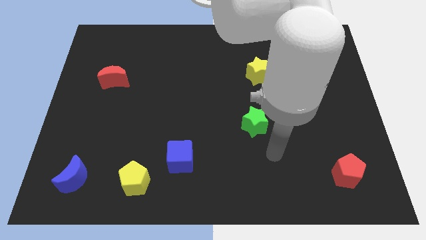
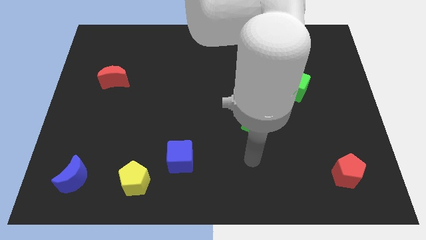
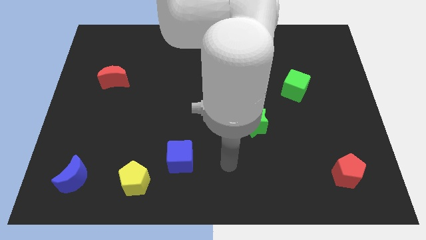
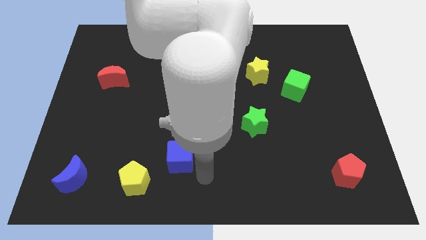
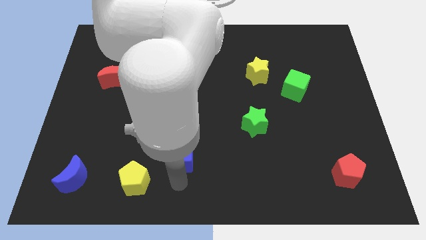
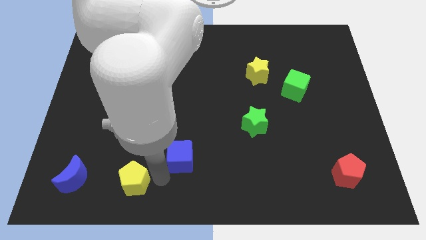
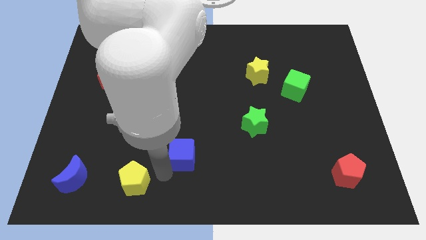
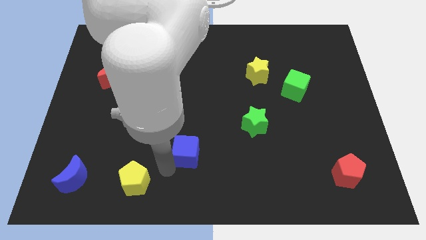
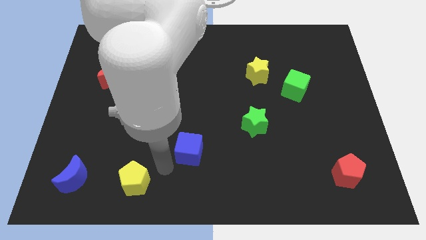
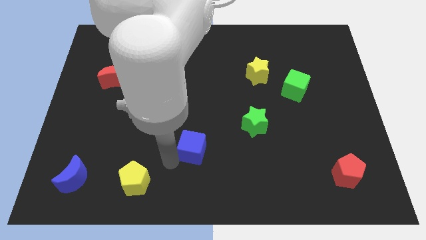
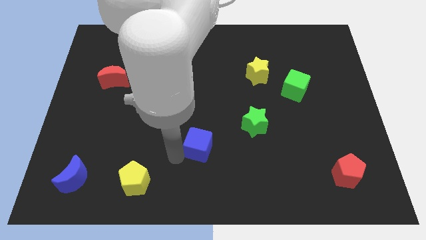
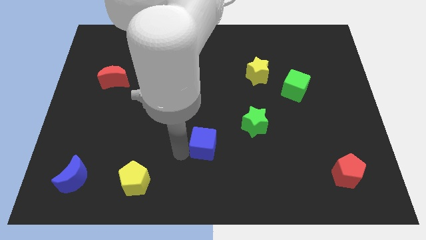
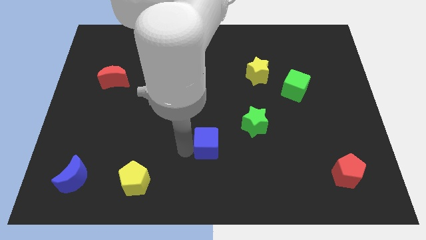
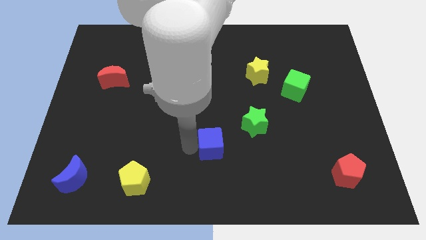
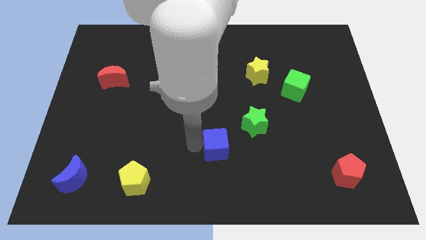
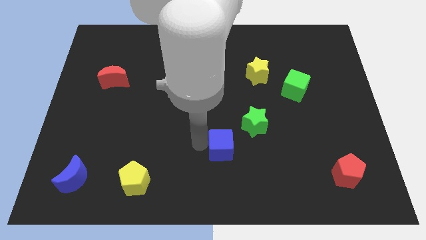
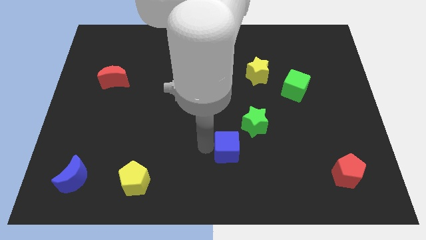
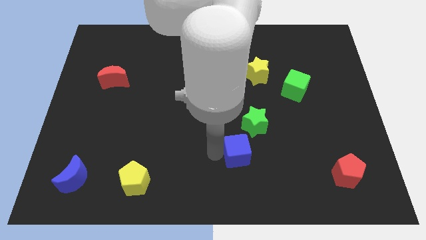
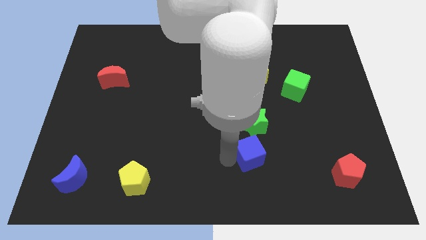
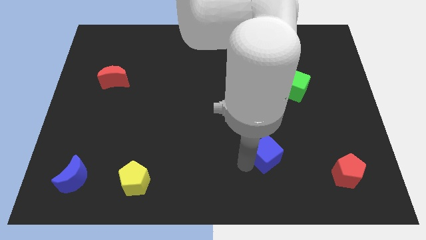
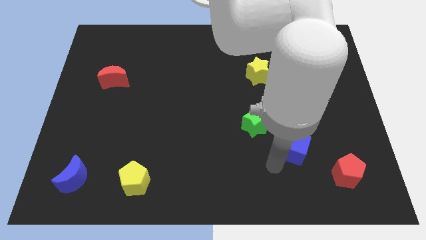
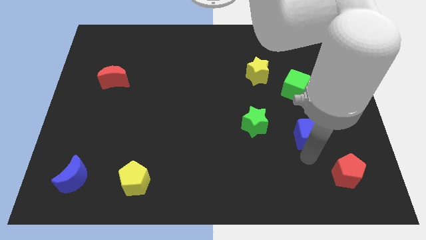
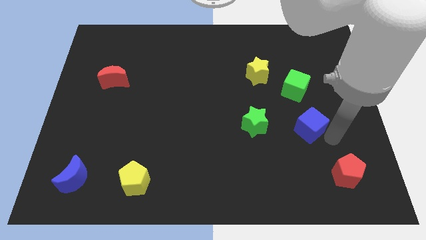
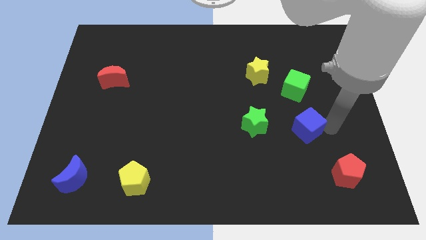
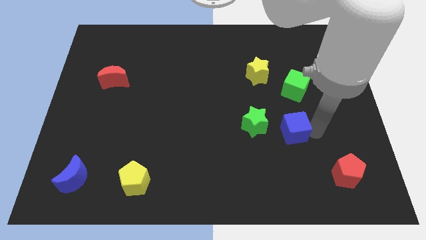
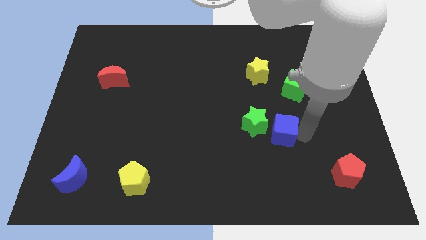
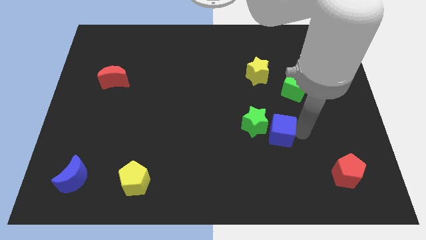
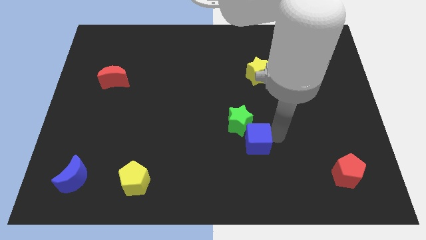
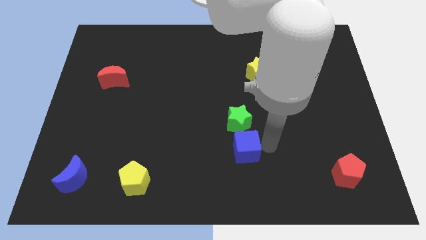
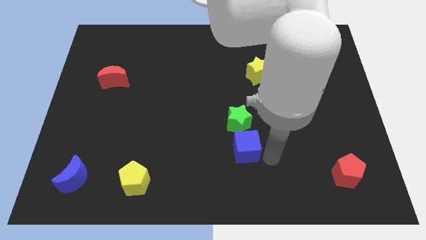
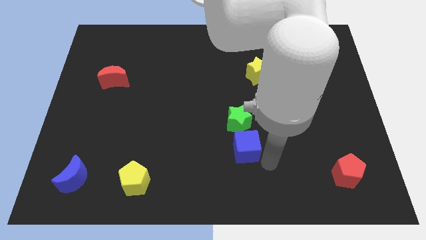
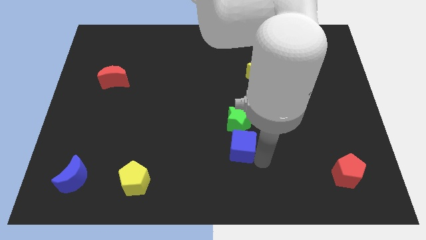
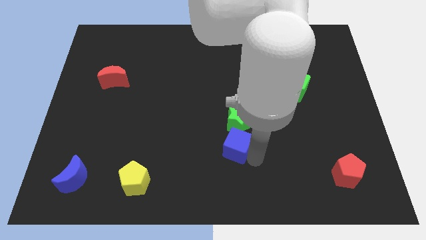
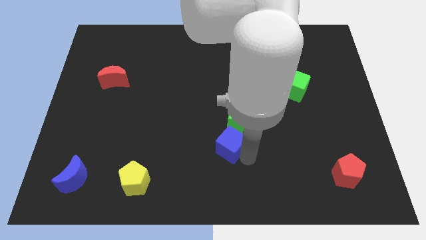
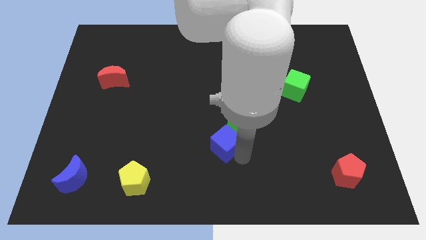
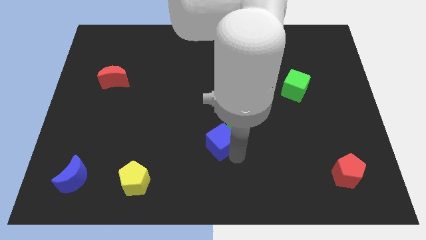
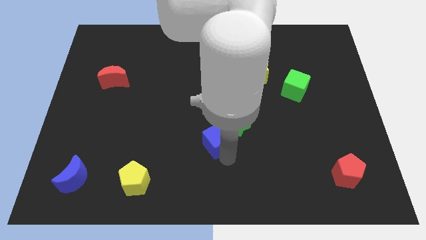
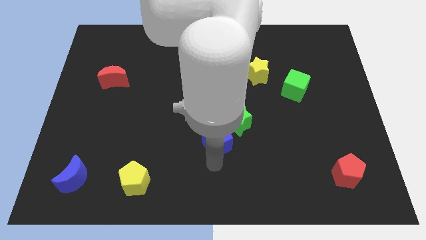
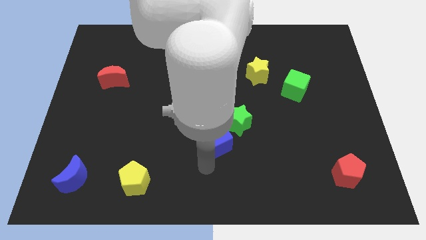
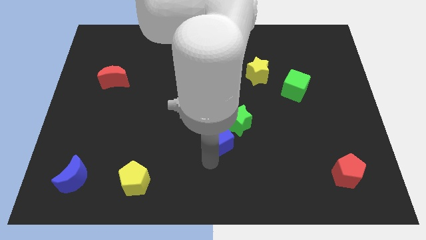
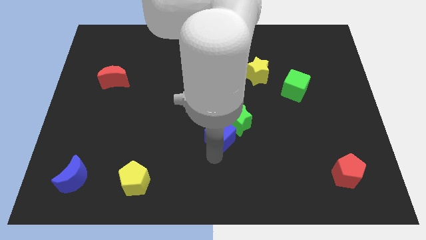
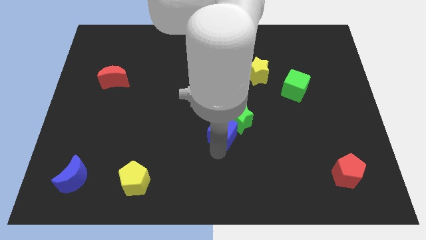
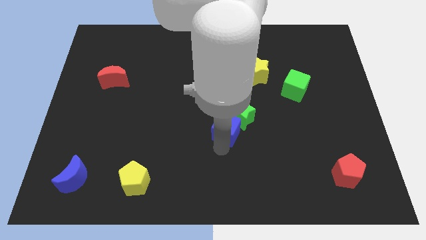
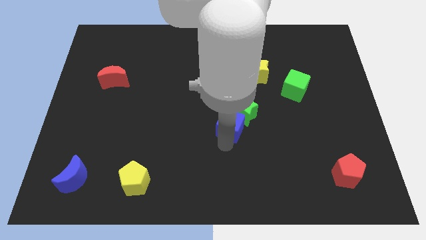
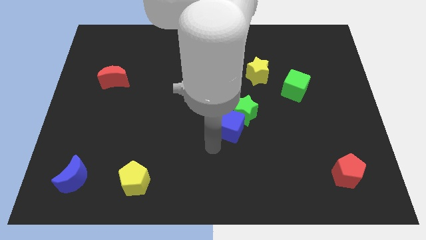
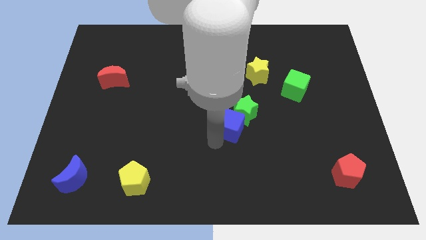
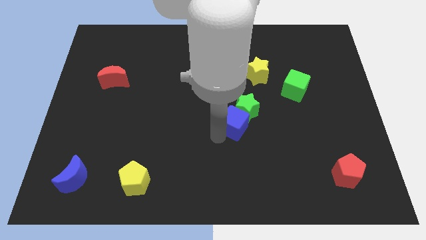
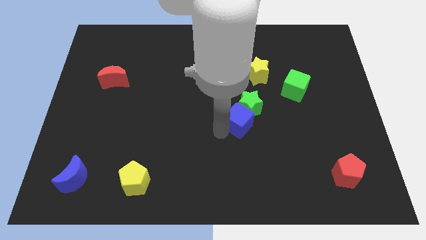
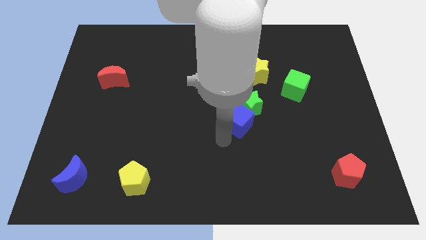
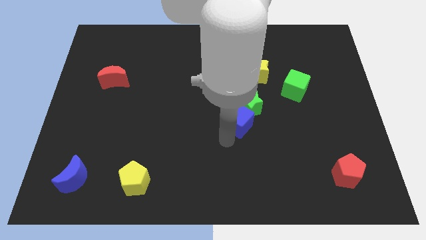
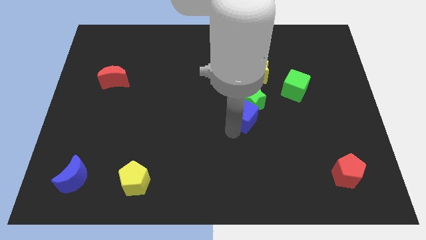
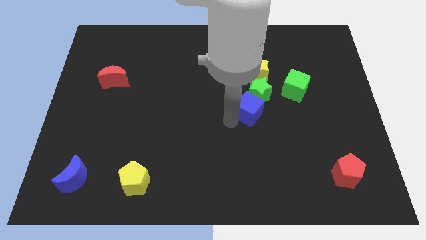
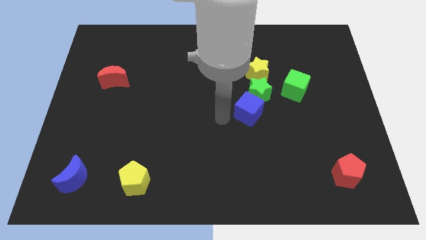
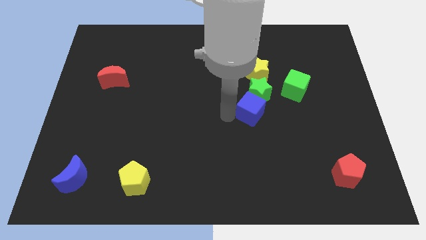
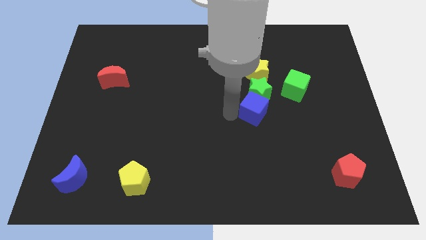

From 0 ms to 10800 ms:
move the blue cube to the bottom left side of the green cube

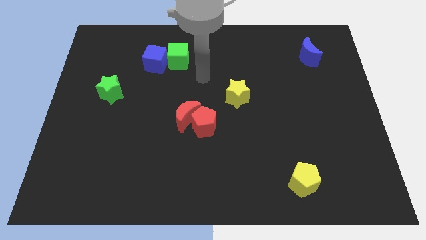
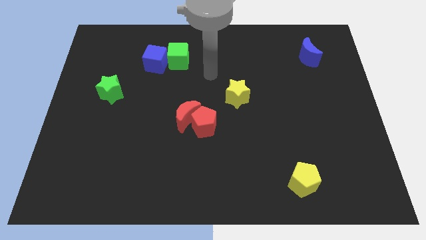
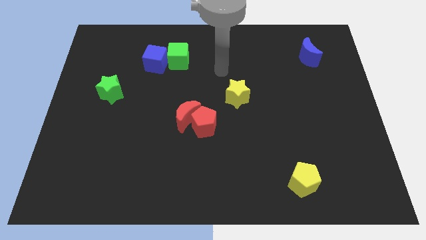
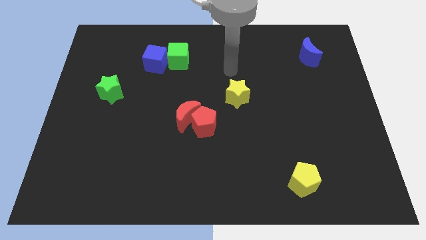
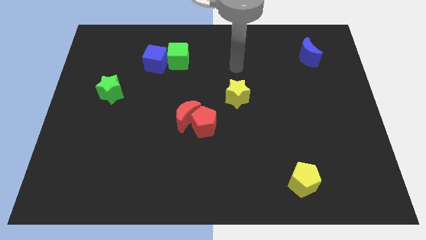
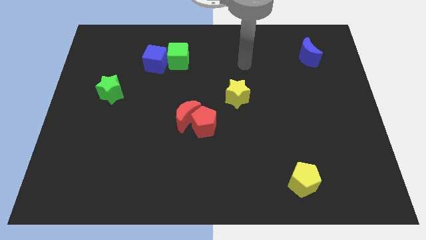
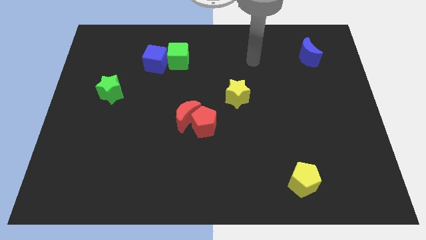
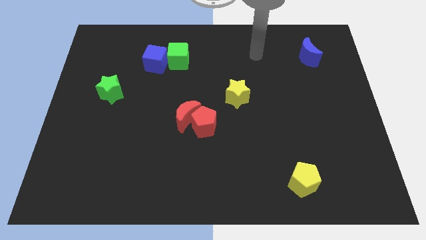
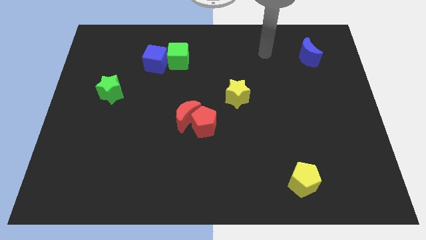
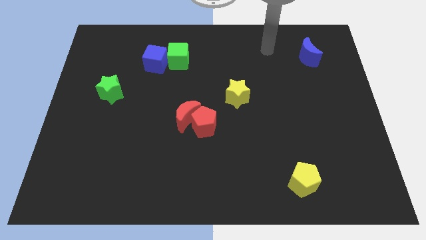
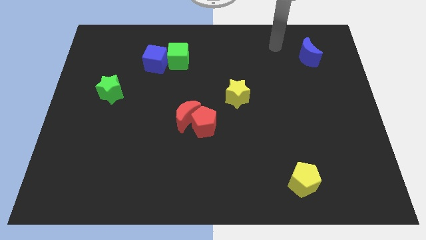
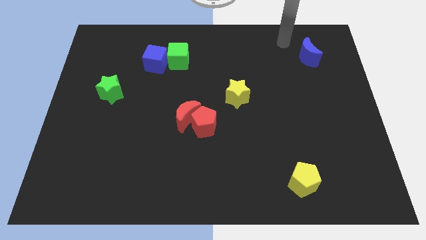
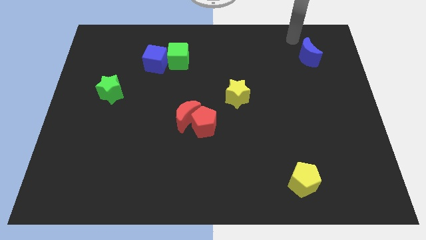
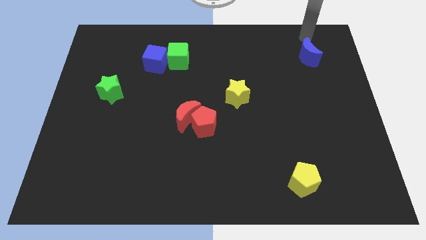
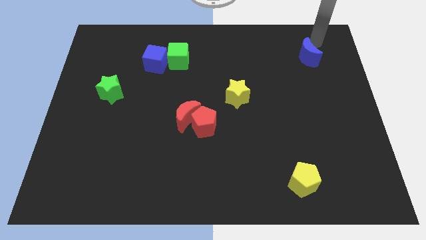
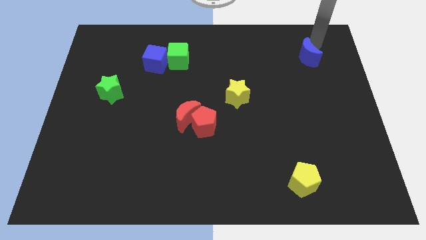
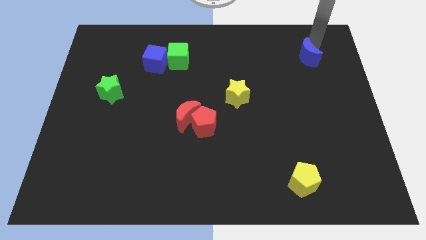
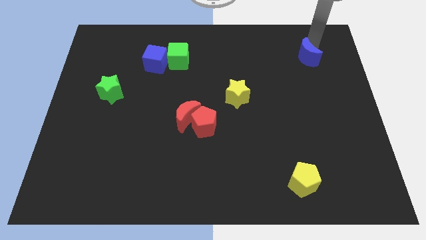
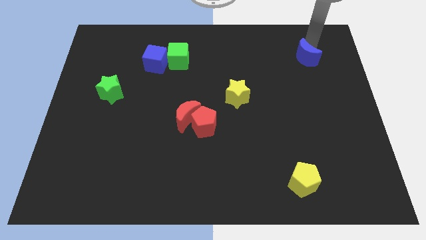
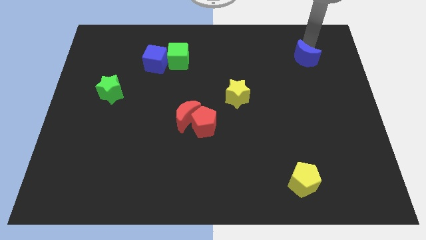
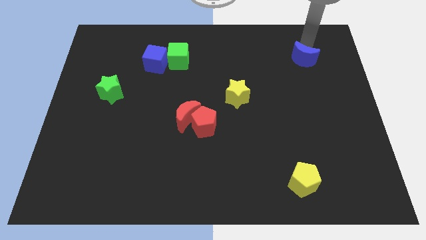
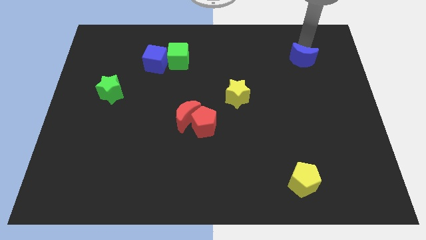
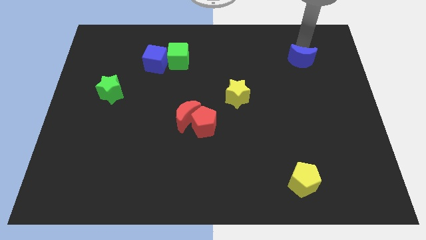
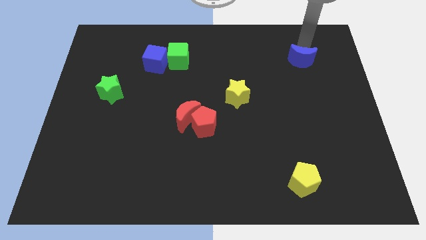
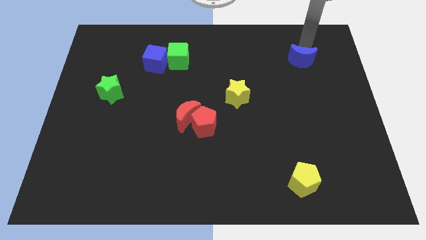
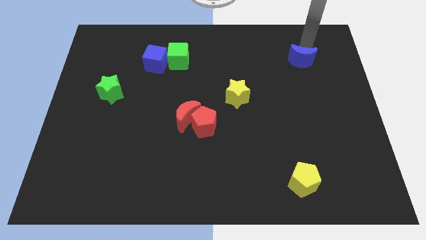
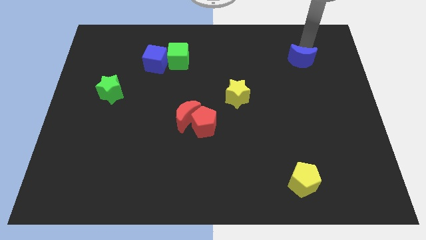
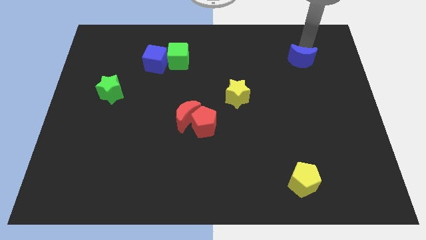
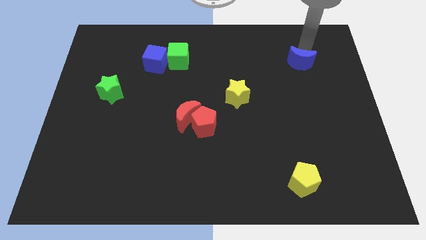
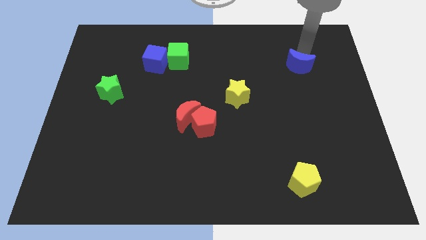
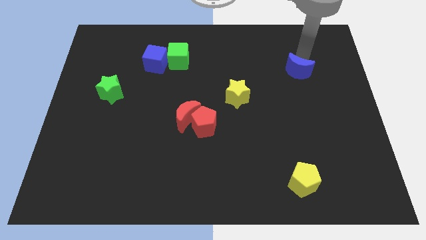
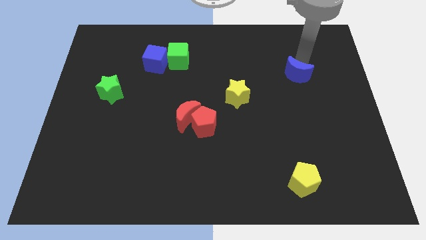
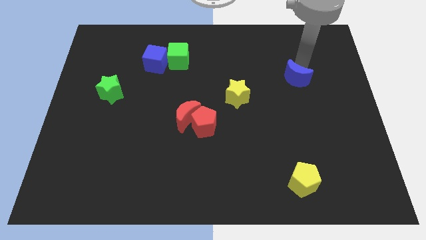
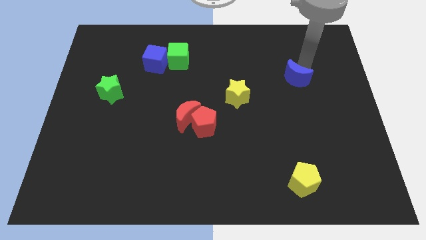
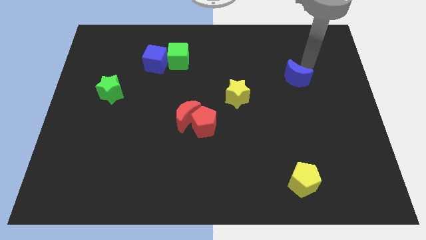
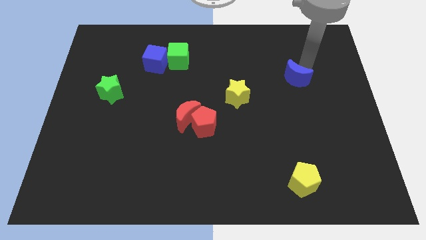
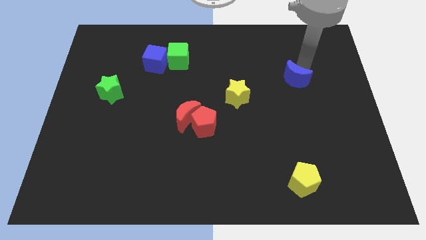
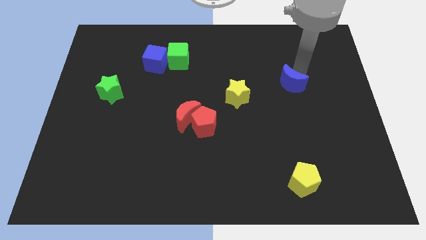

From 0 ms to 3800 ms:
move the blue moon just right of the yellow star
